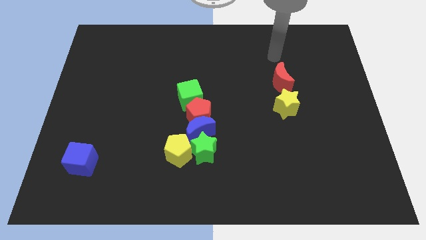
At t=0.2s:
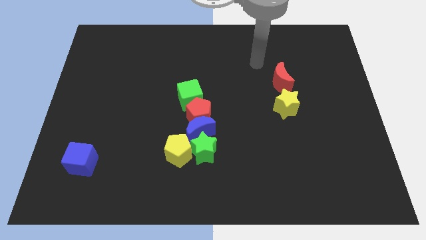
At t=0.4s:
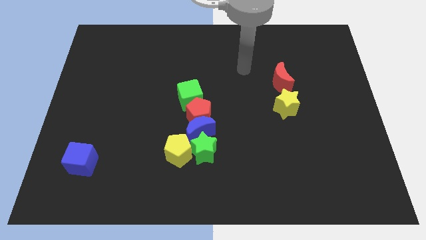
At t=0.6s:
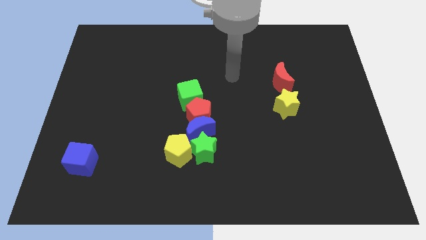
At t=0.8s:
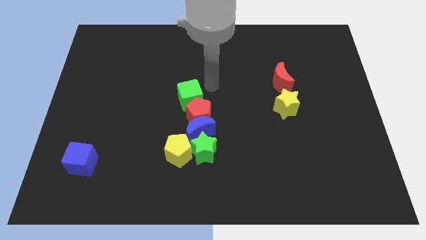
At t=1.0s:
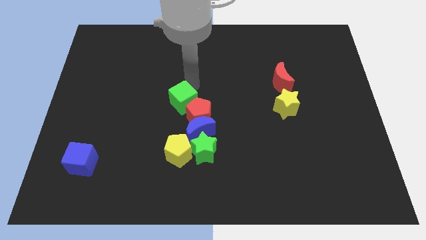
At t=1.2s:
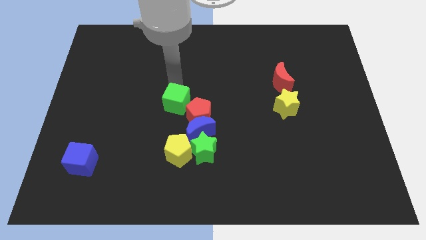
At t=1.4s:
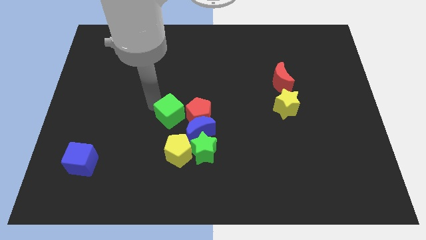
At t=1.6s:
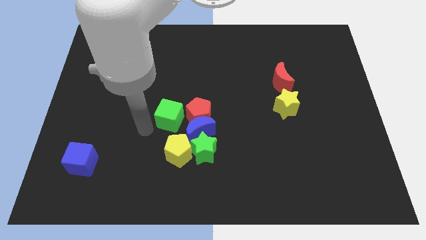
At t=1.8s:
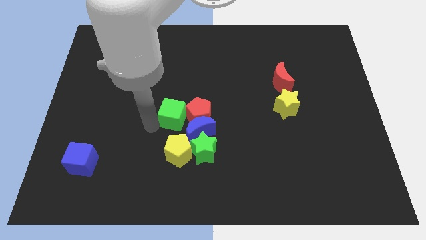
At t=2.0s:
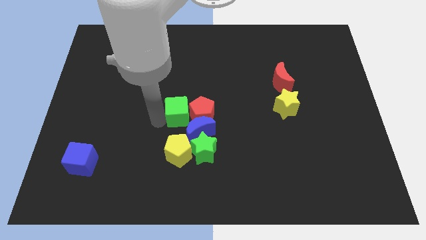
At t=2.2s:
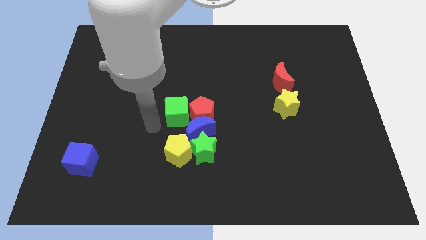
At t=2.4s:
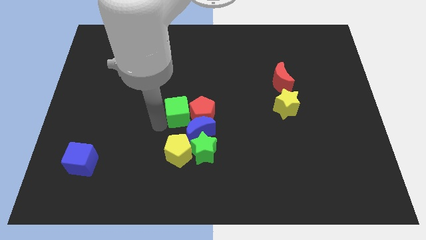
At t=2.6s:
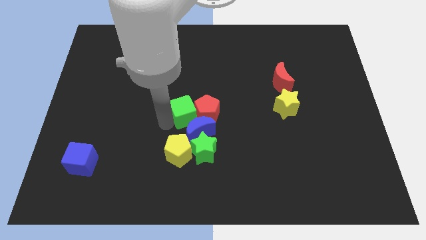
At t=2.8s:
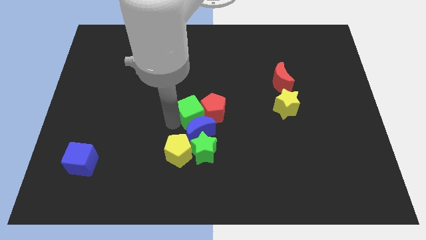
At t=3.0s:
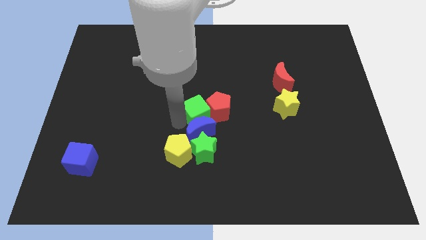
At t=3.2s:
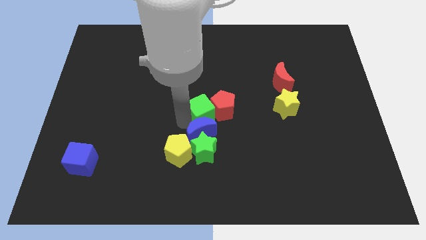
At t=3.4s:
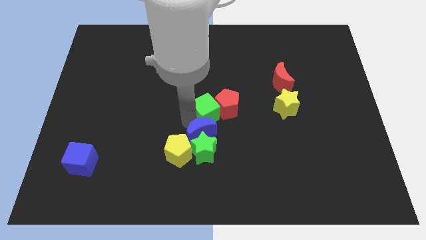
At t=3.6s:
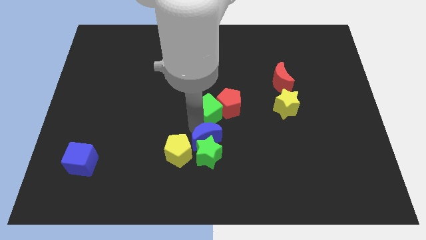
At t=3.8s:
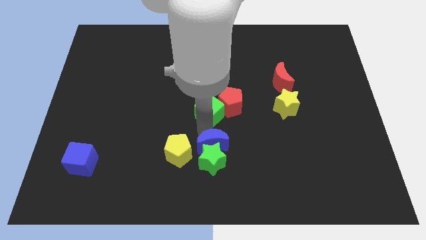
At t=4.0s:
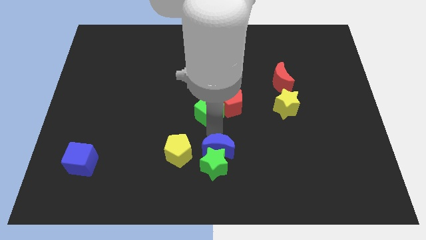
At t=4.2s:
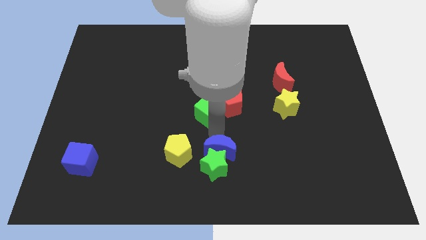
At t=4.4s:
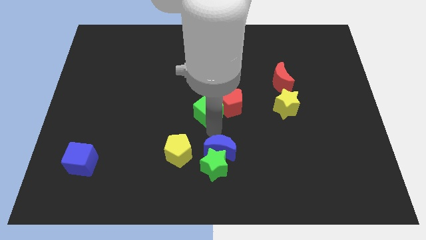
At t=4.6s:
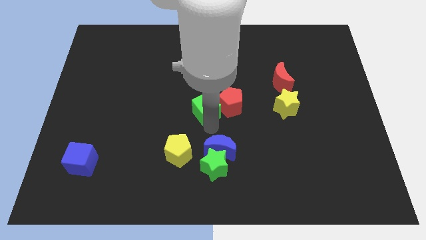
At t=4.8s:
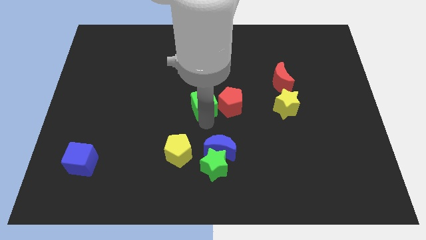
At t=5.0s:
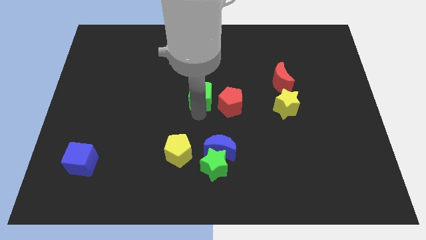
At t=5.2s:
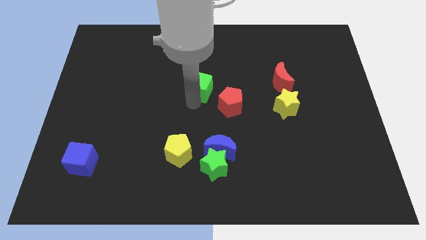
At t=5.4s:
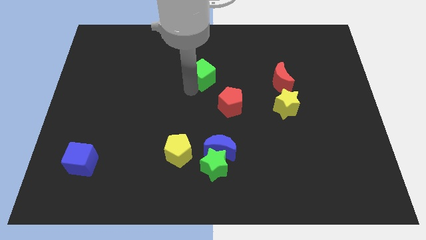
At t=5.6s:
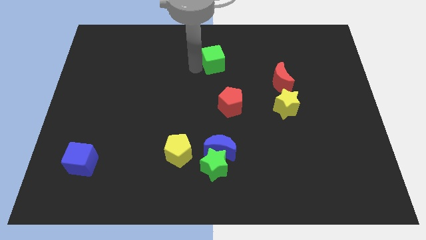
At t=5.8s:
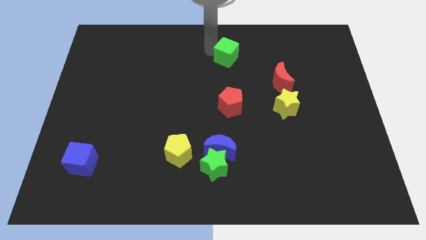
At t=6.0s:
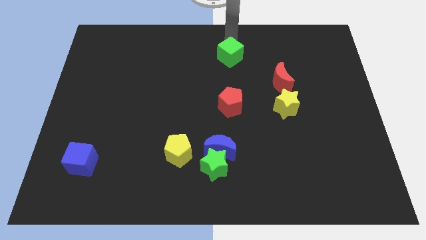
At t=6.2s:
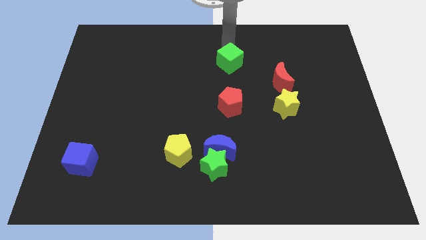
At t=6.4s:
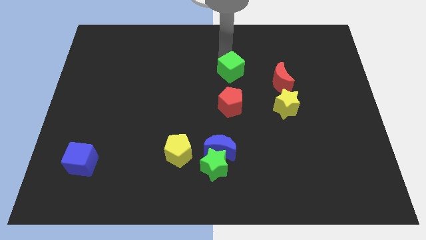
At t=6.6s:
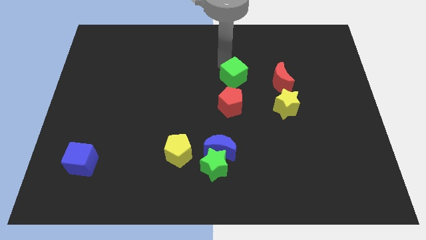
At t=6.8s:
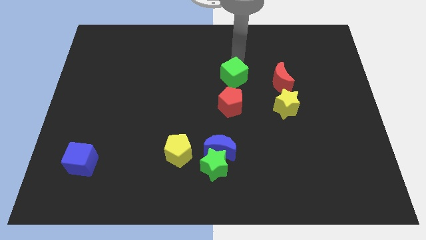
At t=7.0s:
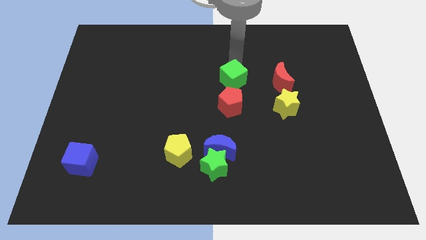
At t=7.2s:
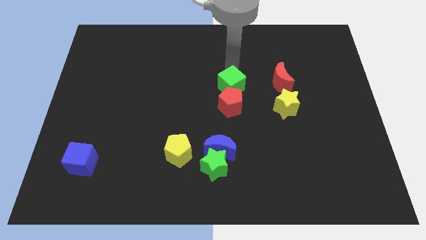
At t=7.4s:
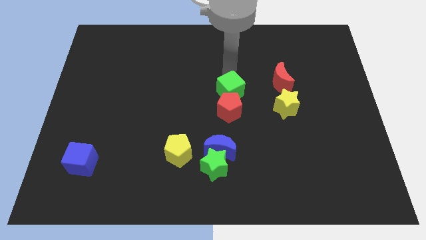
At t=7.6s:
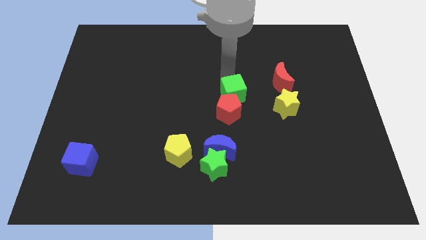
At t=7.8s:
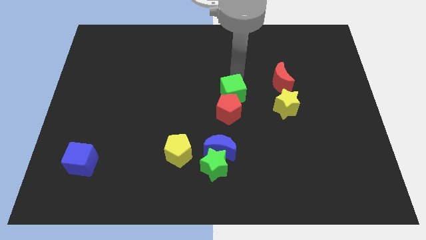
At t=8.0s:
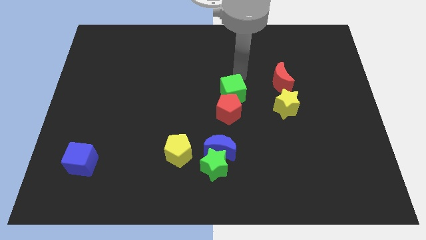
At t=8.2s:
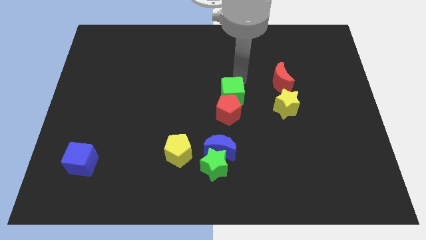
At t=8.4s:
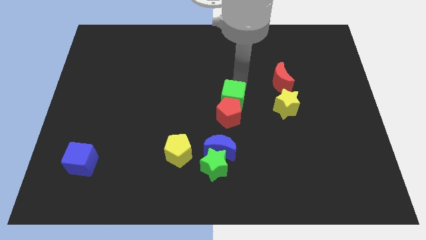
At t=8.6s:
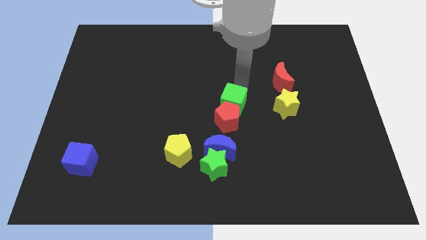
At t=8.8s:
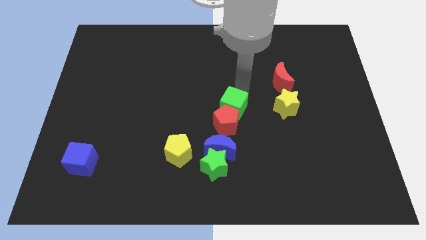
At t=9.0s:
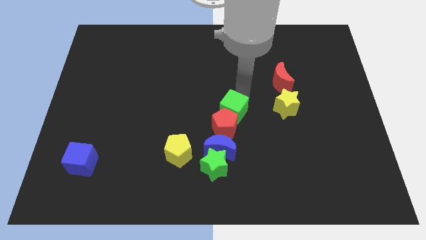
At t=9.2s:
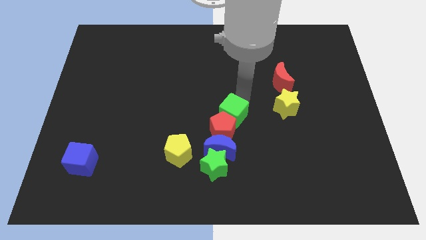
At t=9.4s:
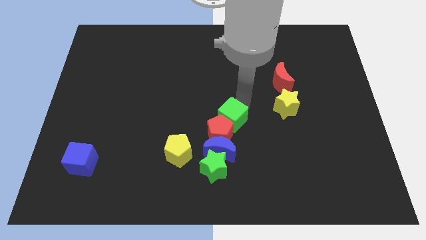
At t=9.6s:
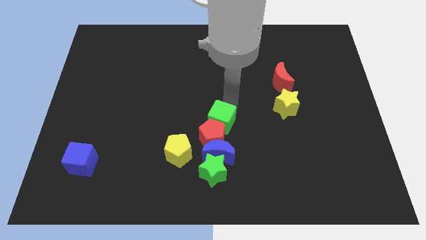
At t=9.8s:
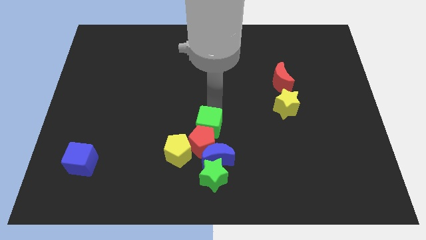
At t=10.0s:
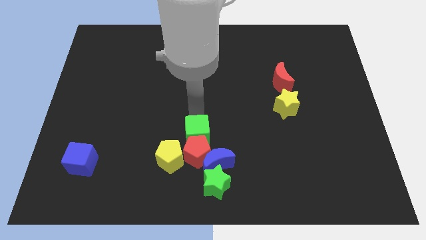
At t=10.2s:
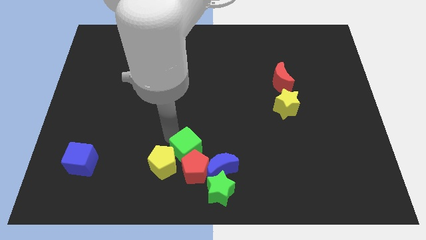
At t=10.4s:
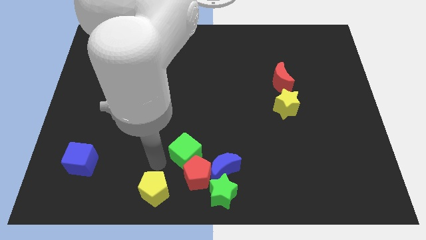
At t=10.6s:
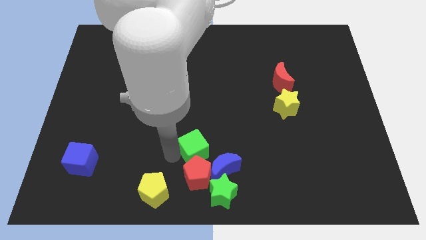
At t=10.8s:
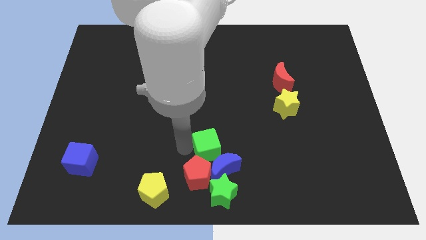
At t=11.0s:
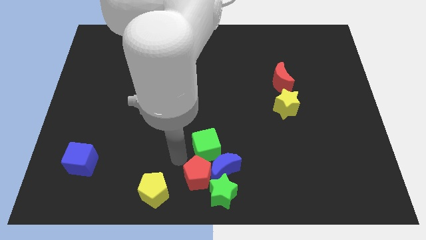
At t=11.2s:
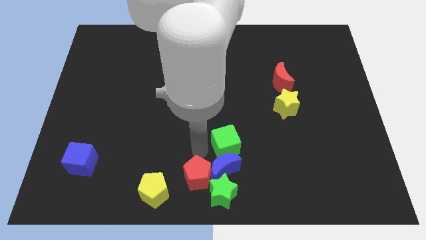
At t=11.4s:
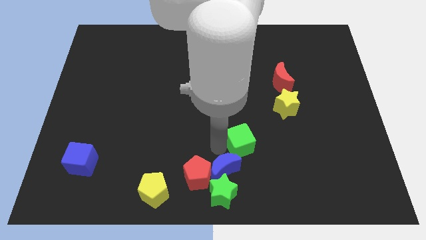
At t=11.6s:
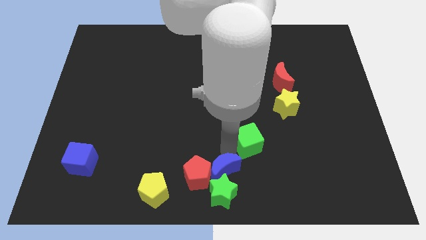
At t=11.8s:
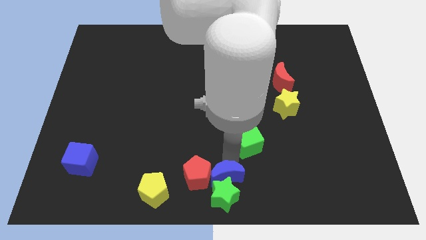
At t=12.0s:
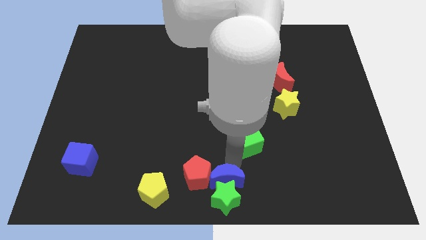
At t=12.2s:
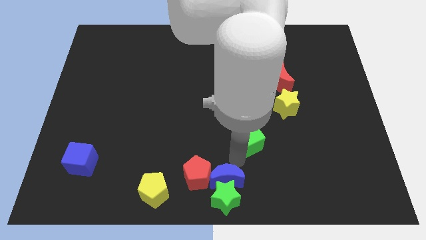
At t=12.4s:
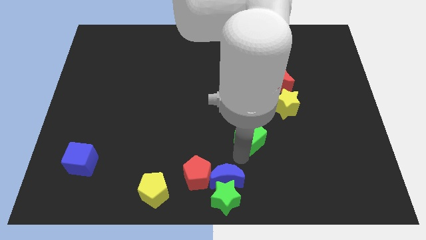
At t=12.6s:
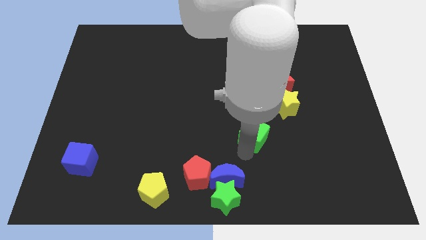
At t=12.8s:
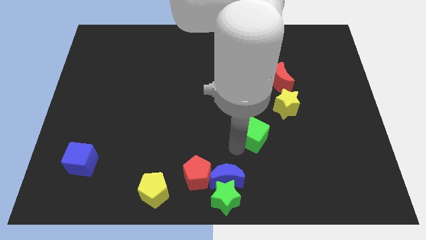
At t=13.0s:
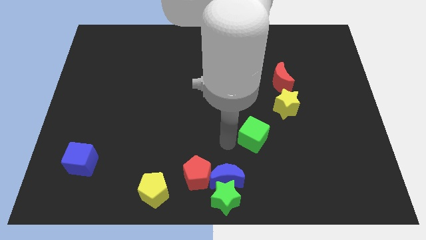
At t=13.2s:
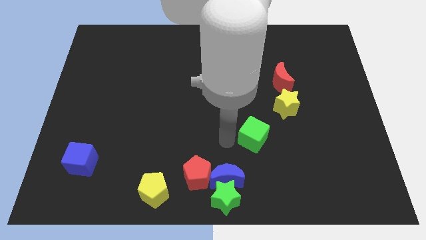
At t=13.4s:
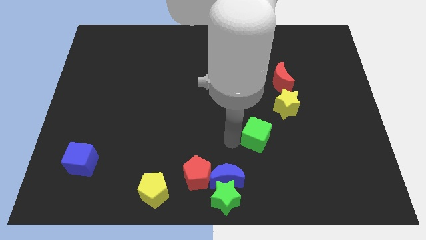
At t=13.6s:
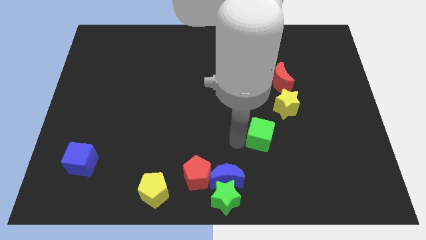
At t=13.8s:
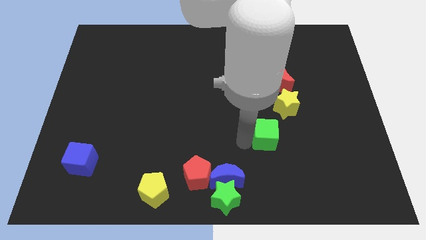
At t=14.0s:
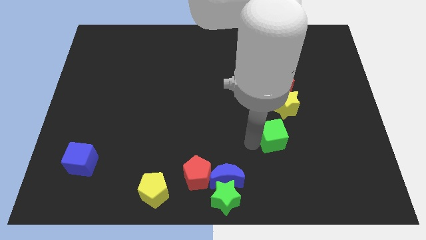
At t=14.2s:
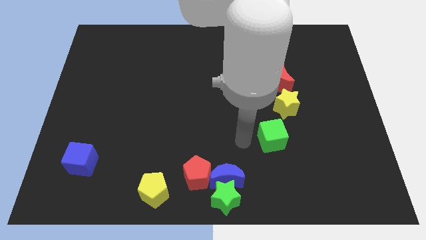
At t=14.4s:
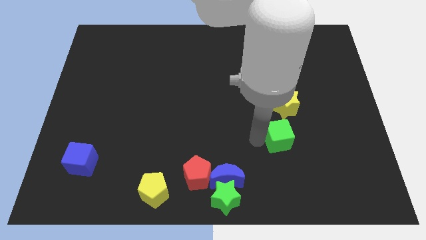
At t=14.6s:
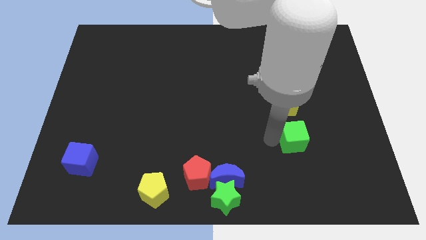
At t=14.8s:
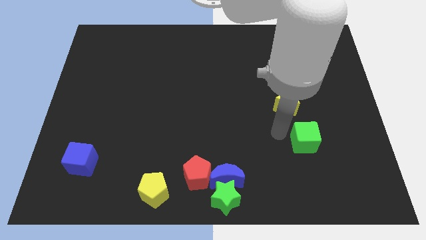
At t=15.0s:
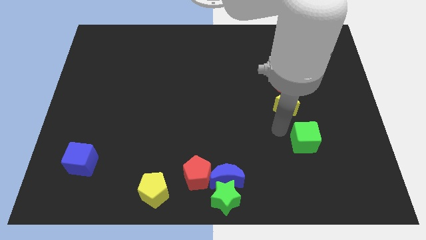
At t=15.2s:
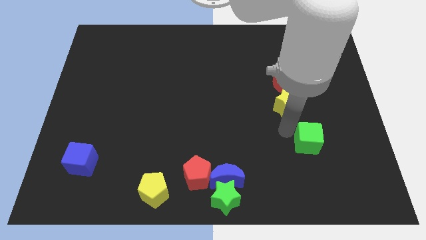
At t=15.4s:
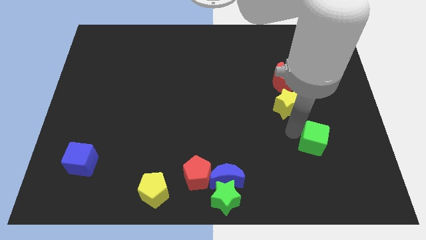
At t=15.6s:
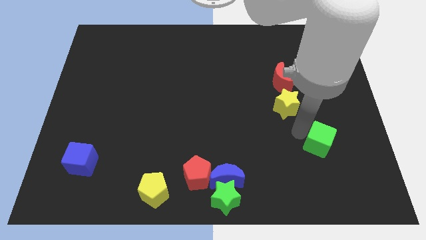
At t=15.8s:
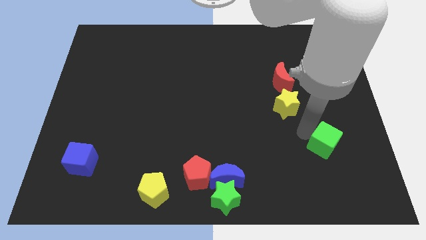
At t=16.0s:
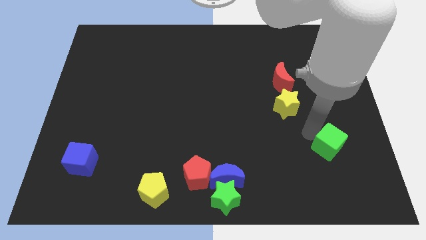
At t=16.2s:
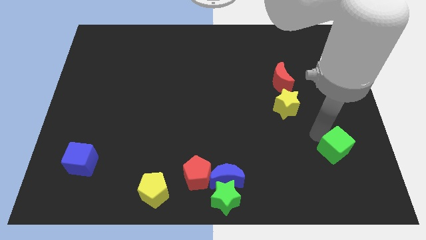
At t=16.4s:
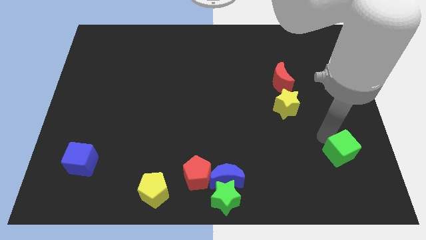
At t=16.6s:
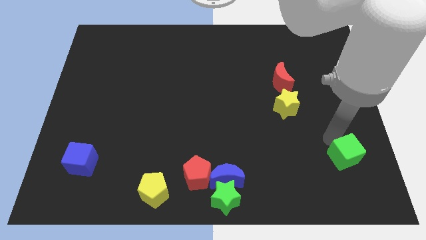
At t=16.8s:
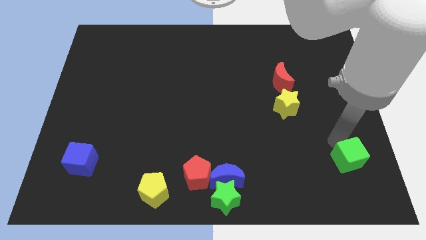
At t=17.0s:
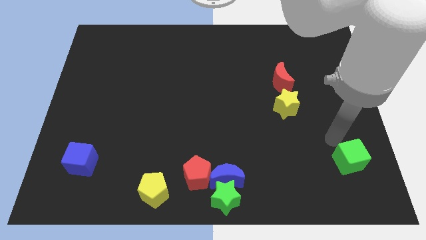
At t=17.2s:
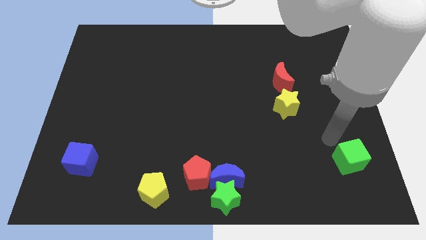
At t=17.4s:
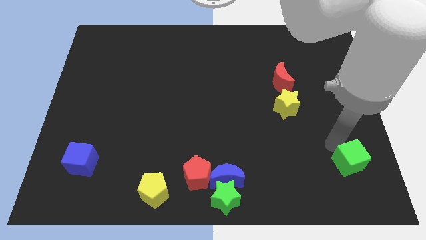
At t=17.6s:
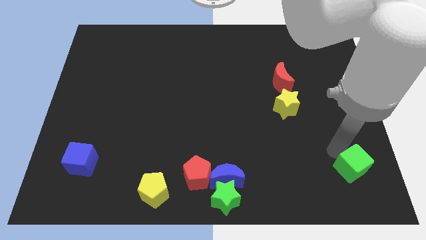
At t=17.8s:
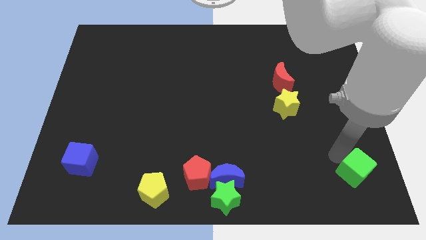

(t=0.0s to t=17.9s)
slide the green cube to the bottom right of the board
